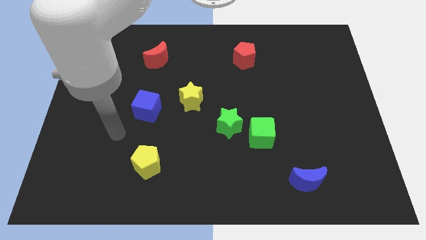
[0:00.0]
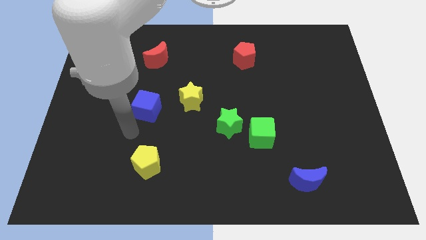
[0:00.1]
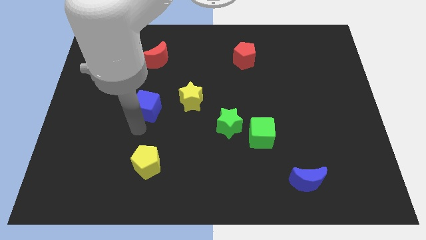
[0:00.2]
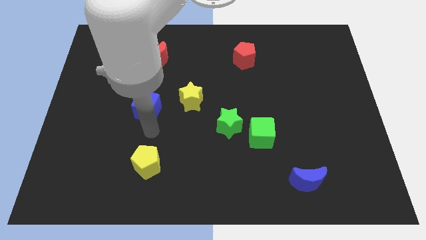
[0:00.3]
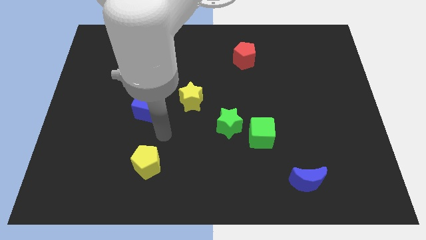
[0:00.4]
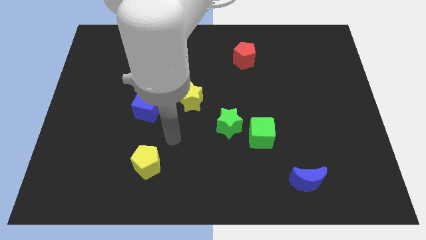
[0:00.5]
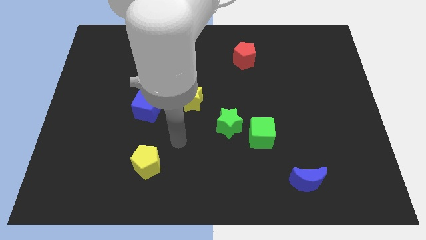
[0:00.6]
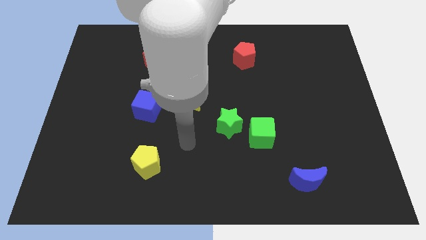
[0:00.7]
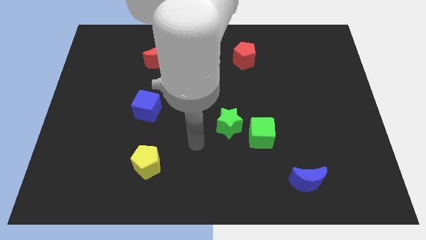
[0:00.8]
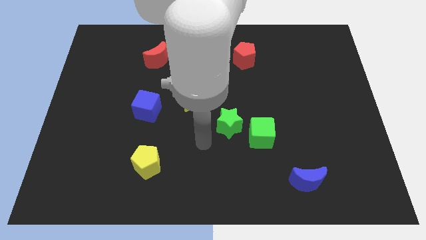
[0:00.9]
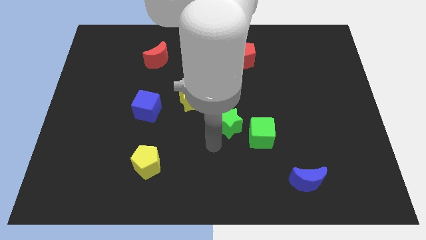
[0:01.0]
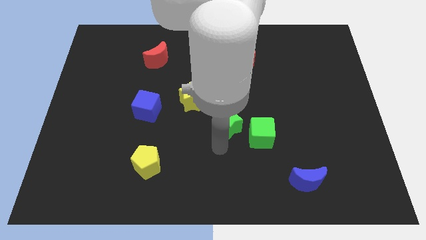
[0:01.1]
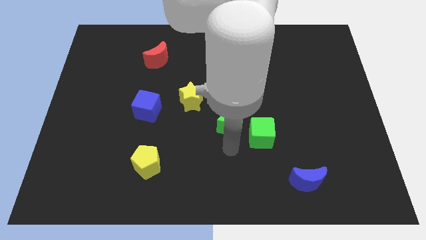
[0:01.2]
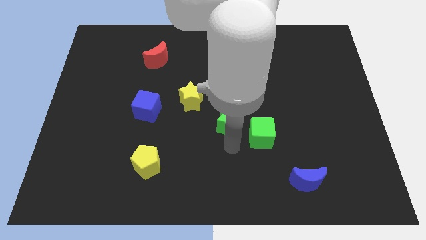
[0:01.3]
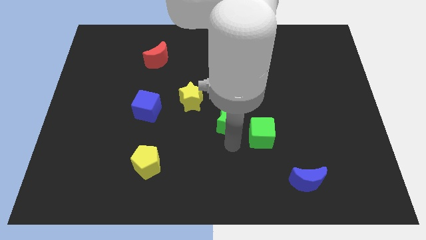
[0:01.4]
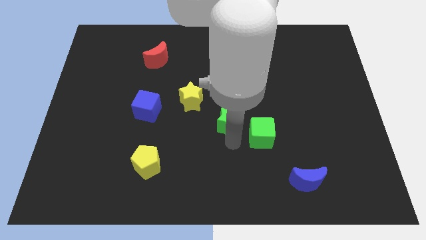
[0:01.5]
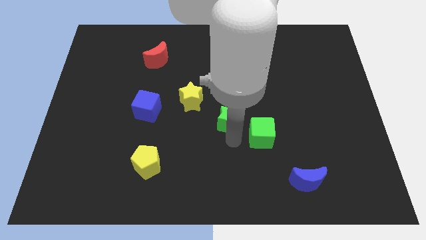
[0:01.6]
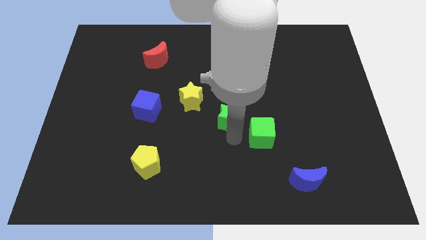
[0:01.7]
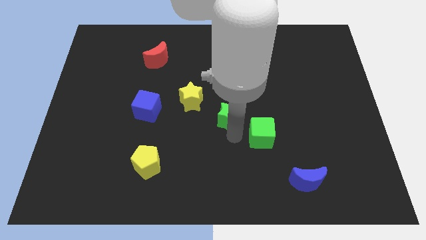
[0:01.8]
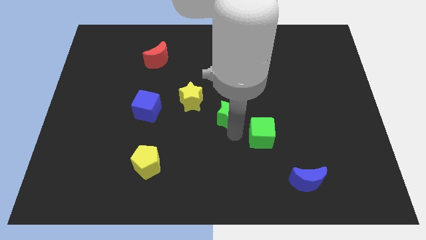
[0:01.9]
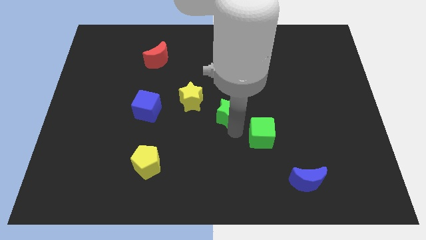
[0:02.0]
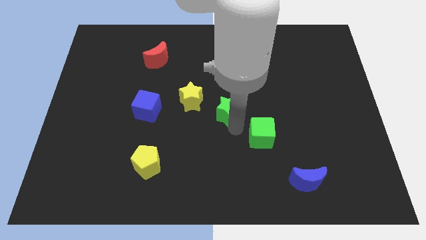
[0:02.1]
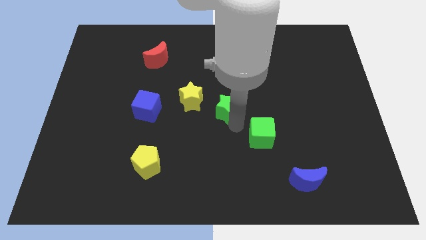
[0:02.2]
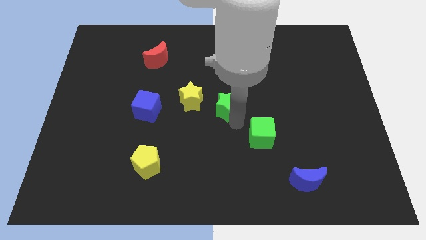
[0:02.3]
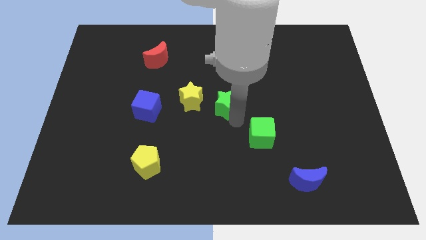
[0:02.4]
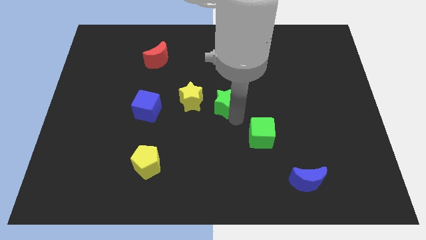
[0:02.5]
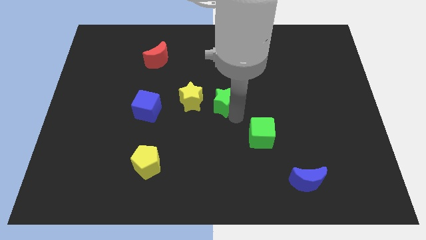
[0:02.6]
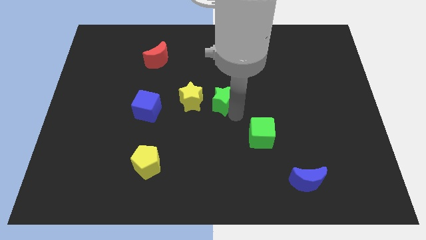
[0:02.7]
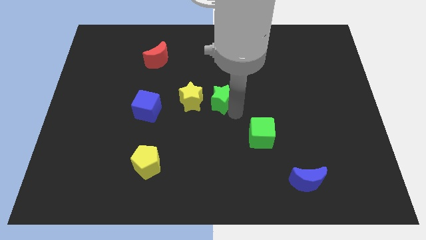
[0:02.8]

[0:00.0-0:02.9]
slightly slide the green star up

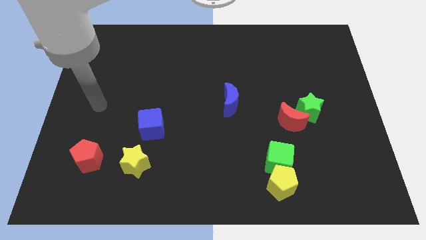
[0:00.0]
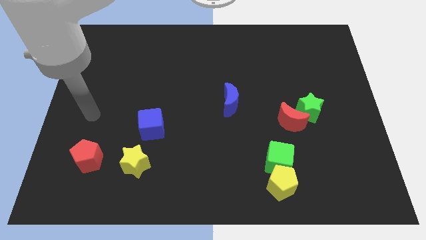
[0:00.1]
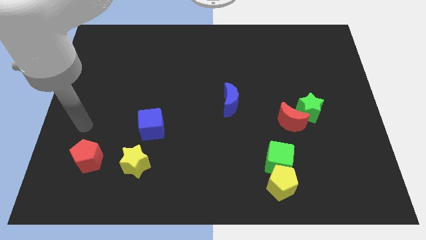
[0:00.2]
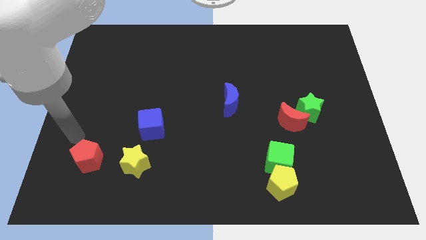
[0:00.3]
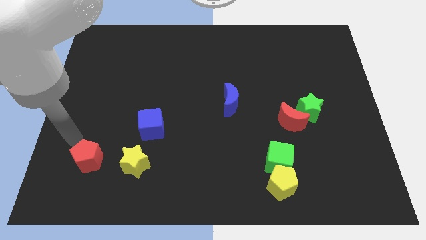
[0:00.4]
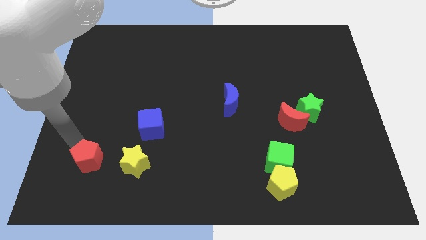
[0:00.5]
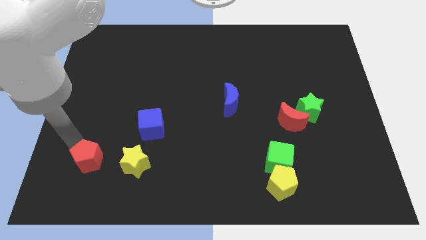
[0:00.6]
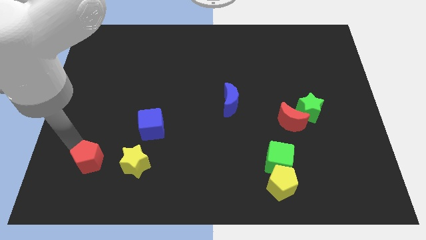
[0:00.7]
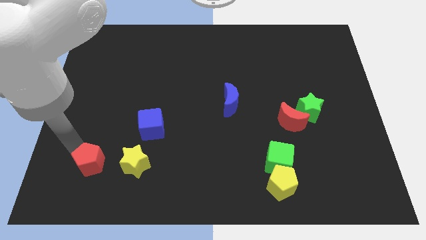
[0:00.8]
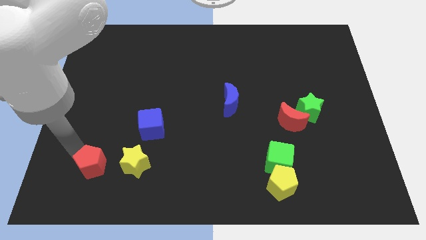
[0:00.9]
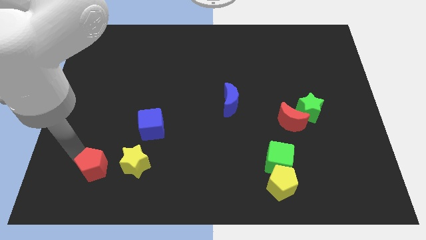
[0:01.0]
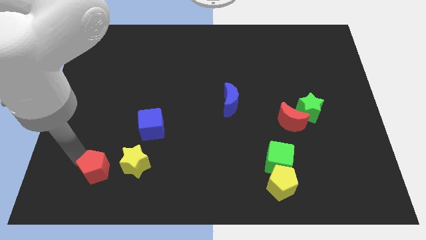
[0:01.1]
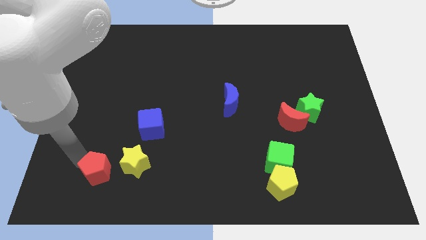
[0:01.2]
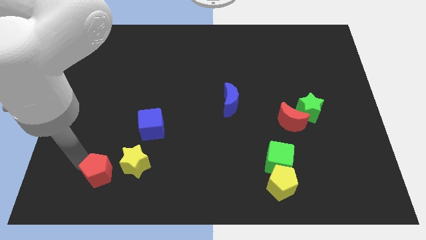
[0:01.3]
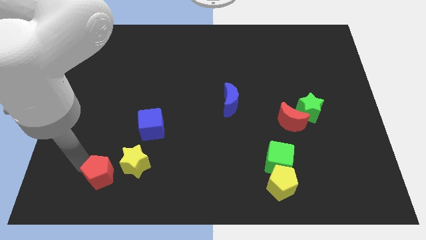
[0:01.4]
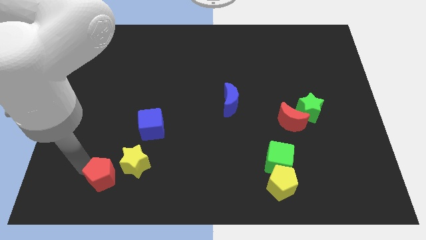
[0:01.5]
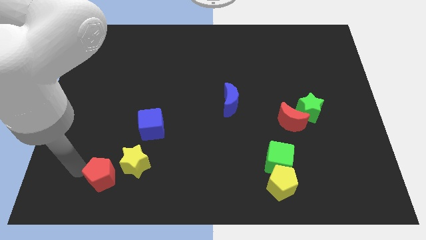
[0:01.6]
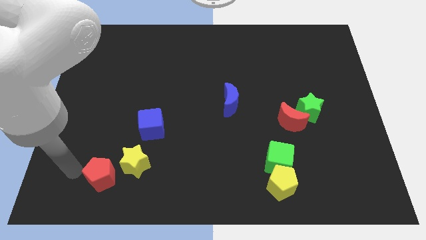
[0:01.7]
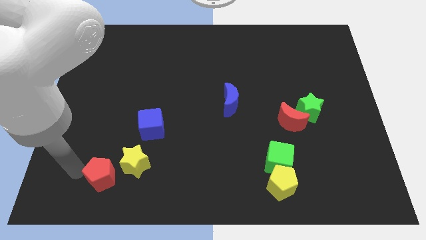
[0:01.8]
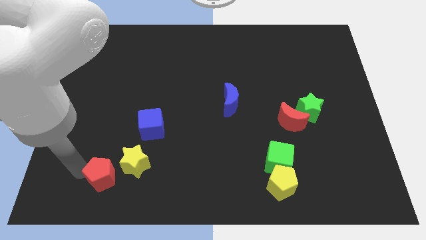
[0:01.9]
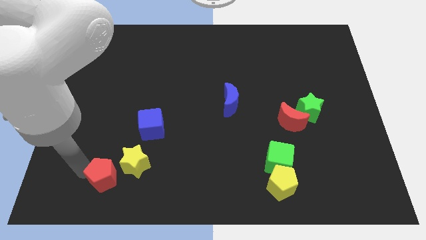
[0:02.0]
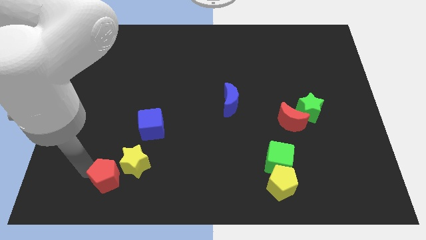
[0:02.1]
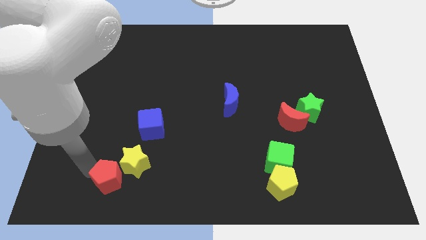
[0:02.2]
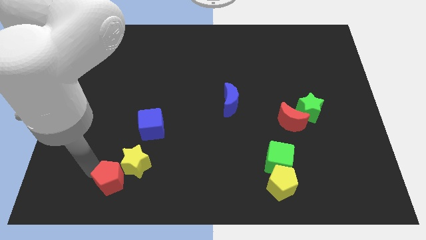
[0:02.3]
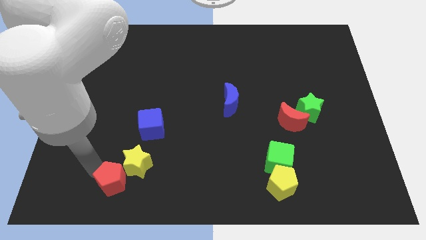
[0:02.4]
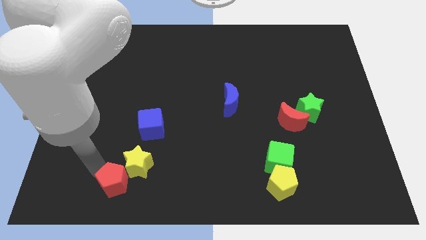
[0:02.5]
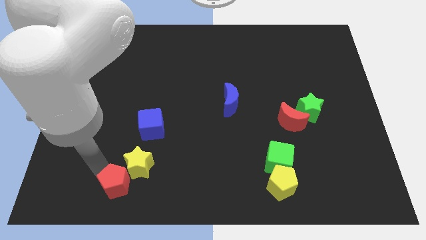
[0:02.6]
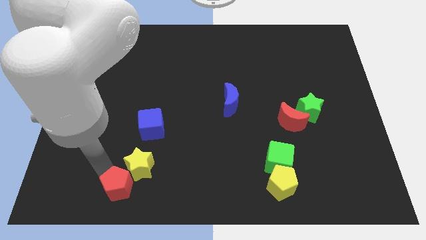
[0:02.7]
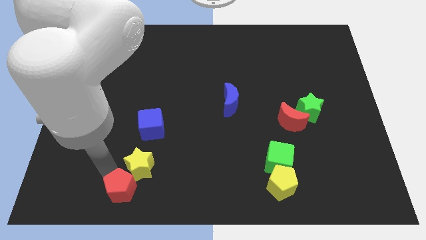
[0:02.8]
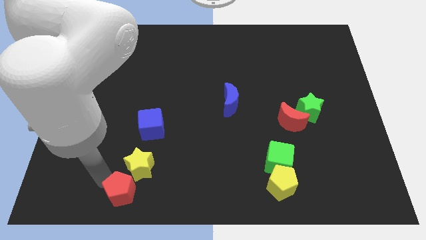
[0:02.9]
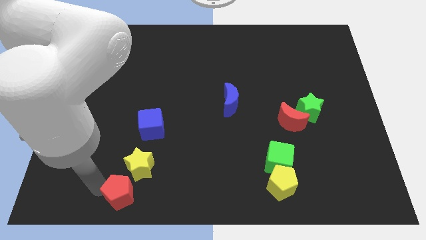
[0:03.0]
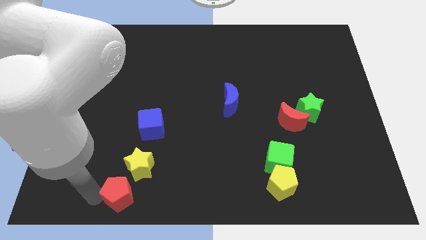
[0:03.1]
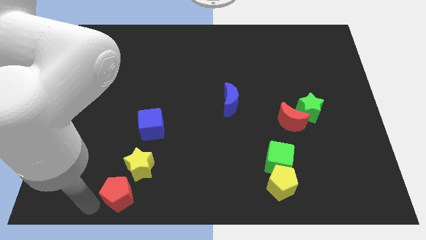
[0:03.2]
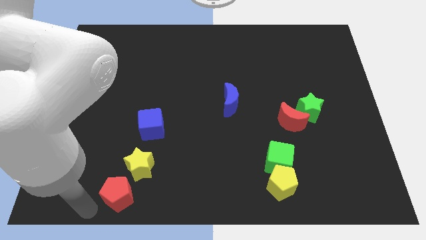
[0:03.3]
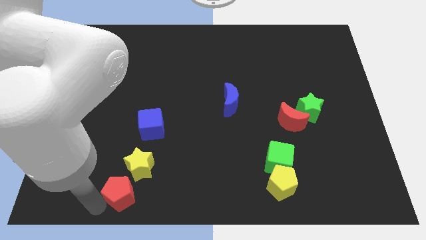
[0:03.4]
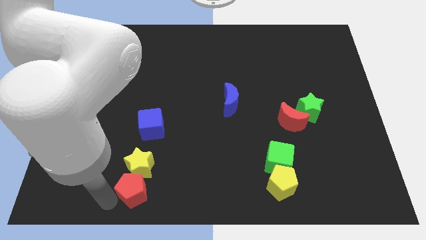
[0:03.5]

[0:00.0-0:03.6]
slightly move the red pentagon right

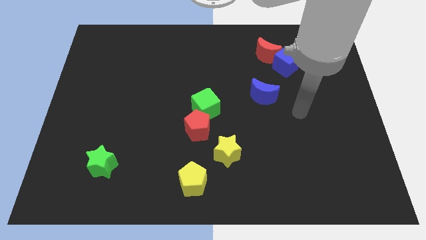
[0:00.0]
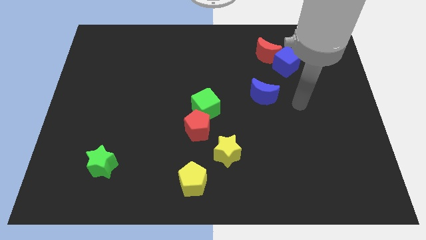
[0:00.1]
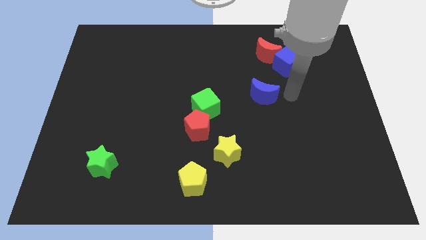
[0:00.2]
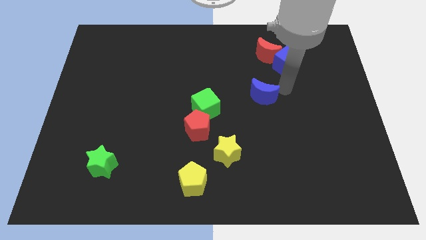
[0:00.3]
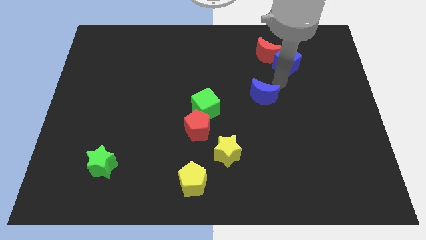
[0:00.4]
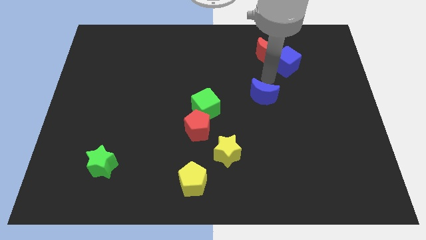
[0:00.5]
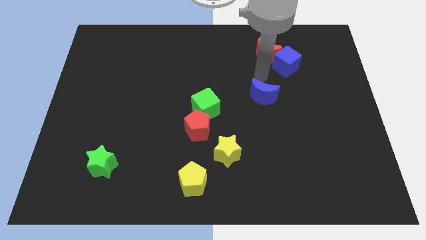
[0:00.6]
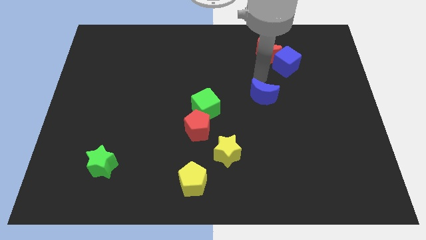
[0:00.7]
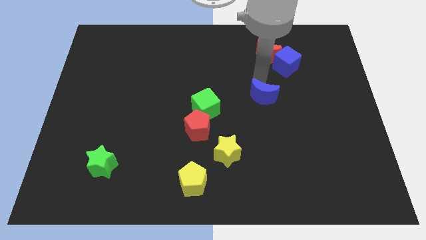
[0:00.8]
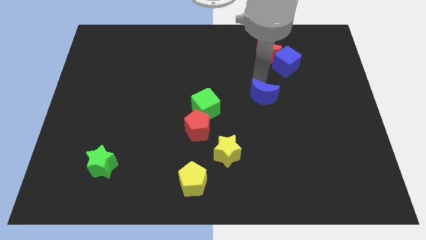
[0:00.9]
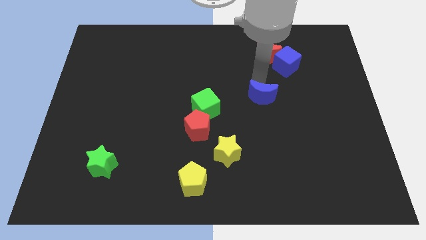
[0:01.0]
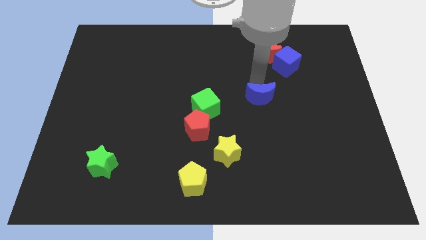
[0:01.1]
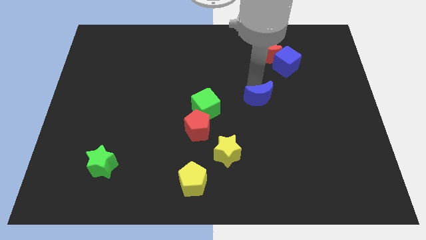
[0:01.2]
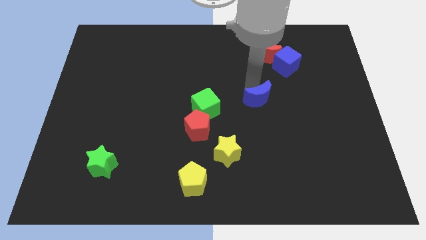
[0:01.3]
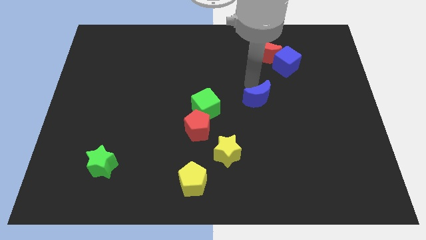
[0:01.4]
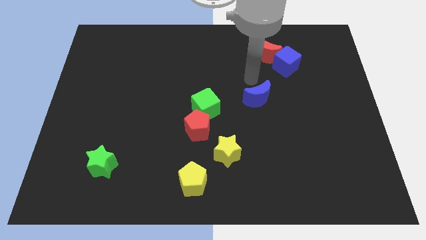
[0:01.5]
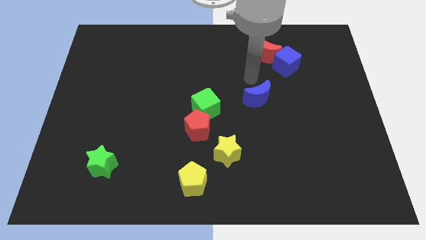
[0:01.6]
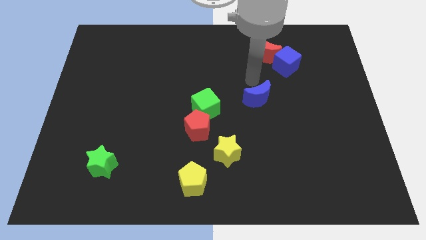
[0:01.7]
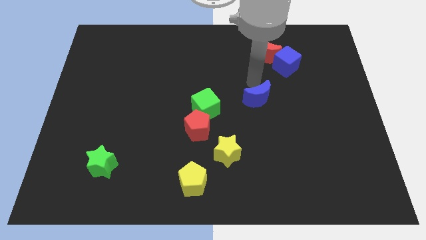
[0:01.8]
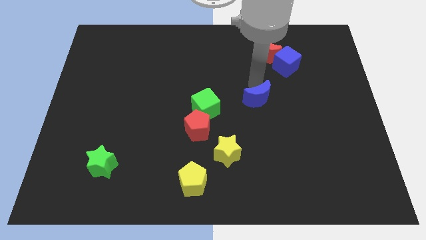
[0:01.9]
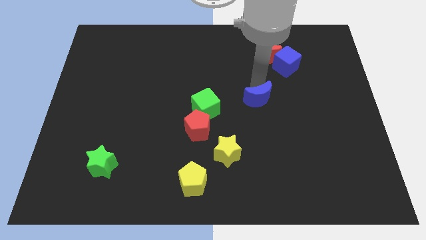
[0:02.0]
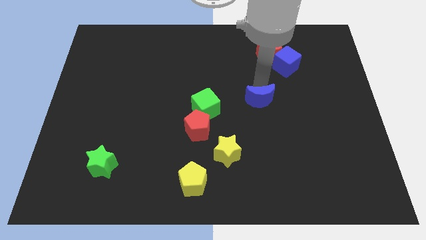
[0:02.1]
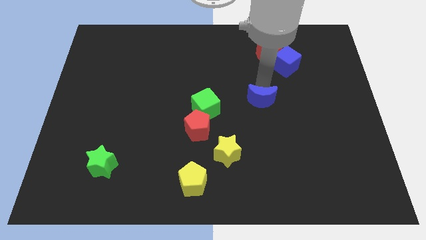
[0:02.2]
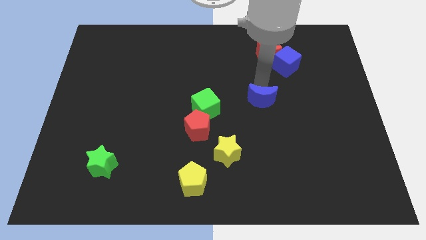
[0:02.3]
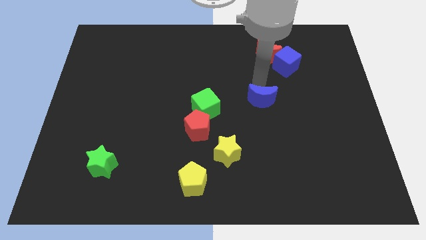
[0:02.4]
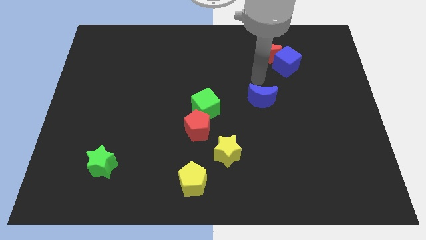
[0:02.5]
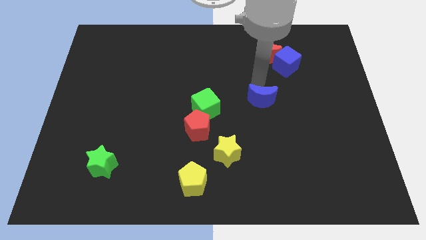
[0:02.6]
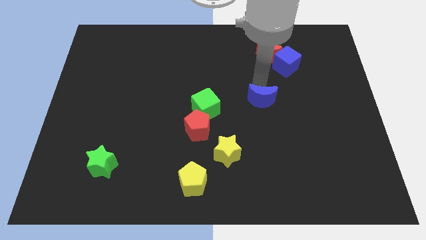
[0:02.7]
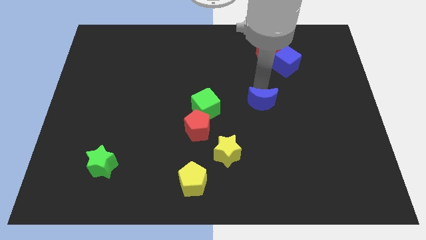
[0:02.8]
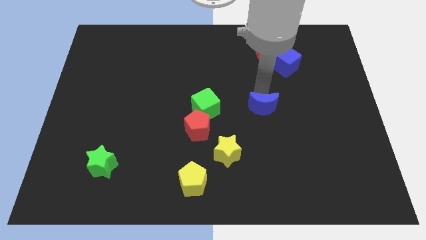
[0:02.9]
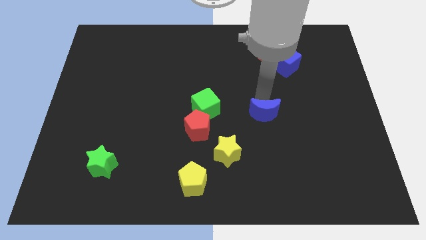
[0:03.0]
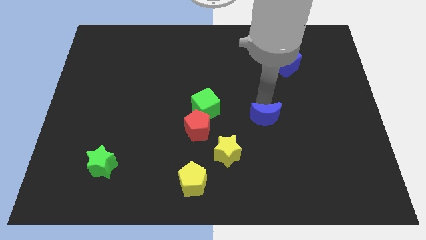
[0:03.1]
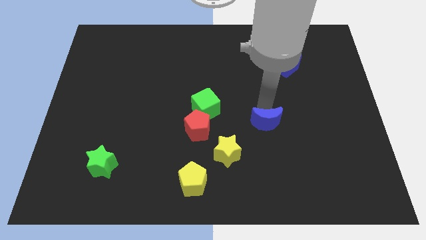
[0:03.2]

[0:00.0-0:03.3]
push the blue moon somewhat downwards
